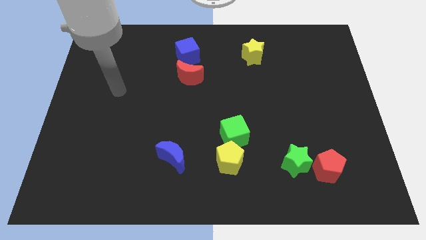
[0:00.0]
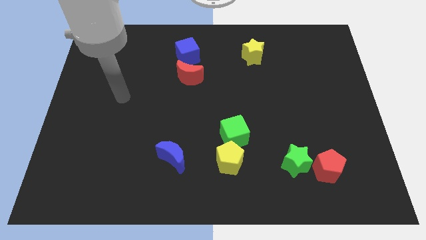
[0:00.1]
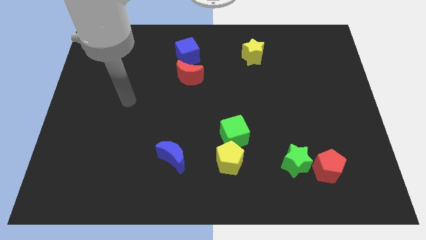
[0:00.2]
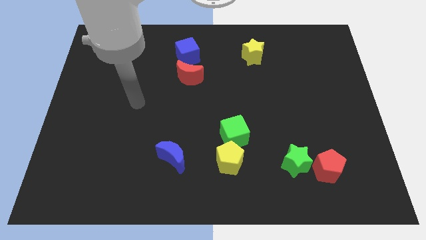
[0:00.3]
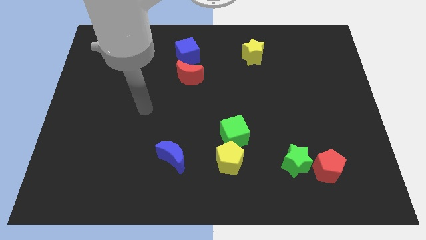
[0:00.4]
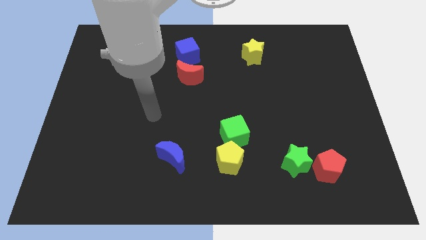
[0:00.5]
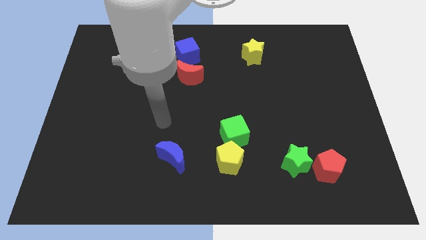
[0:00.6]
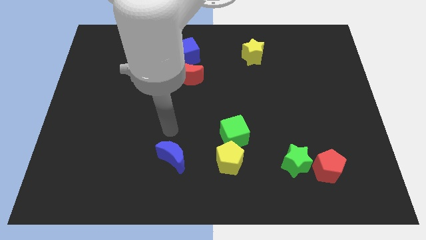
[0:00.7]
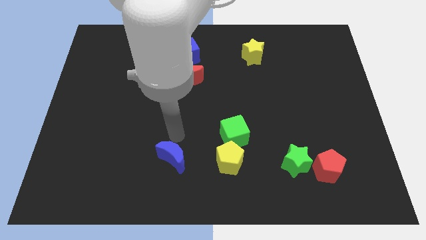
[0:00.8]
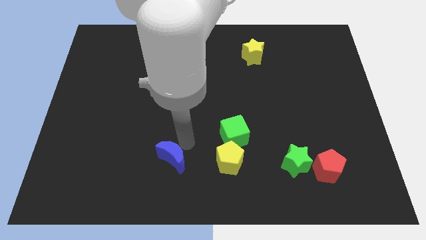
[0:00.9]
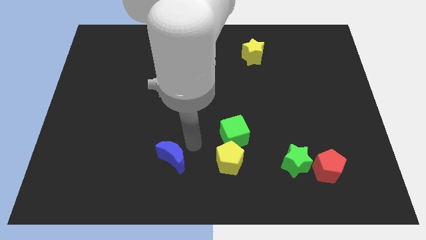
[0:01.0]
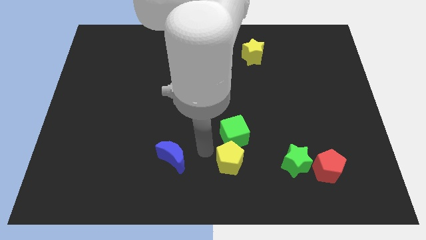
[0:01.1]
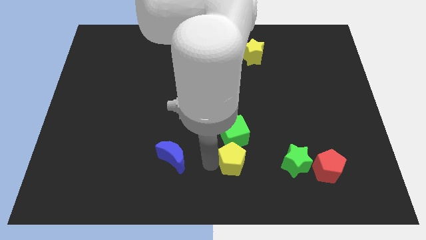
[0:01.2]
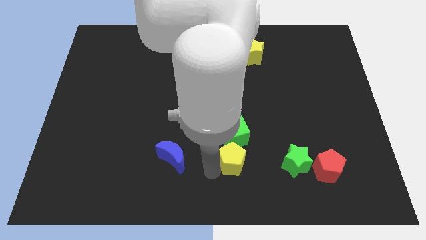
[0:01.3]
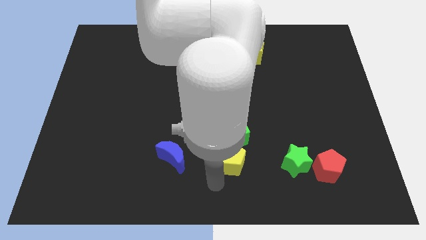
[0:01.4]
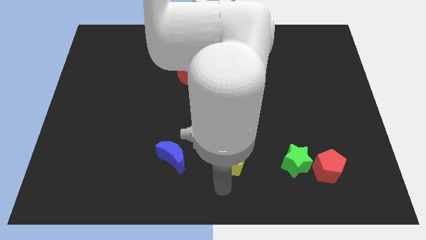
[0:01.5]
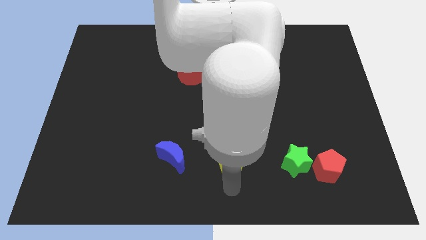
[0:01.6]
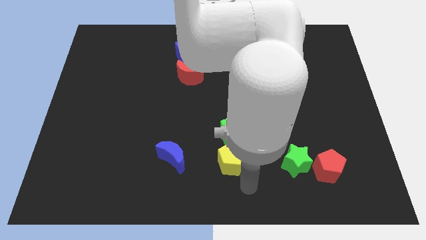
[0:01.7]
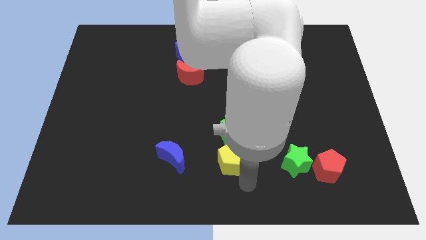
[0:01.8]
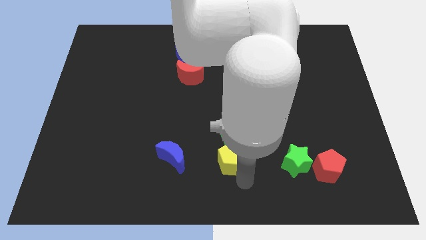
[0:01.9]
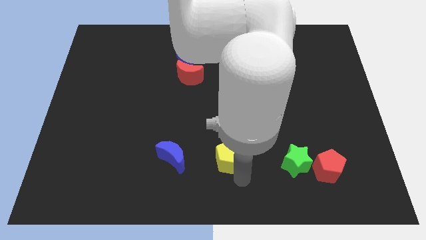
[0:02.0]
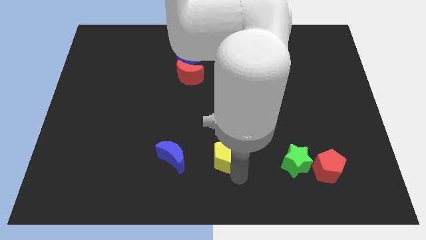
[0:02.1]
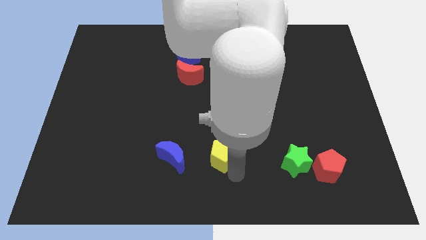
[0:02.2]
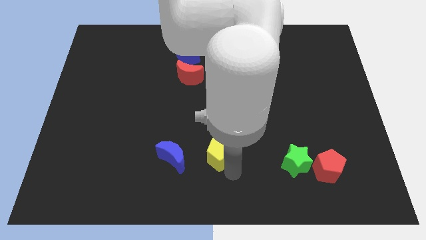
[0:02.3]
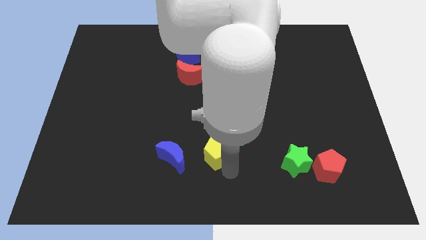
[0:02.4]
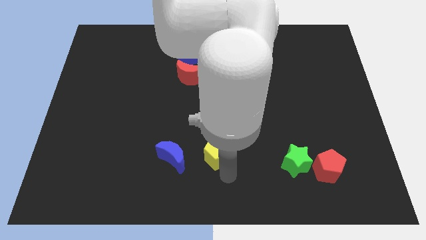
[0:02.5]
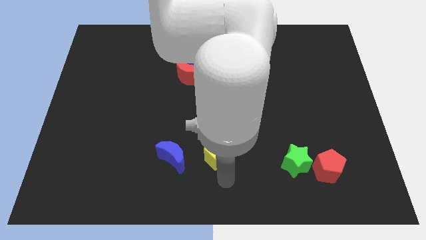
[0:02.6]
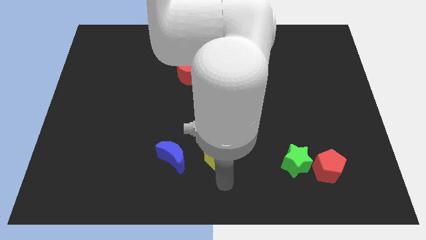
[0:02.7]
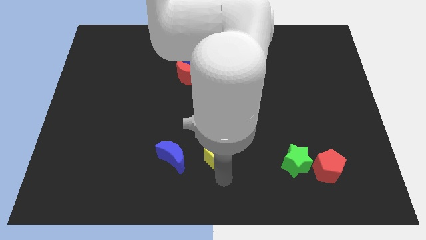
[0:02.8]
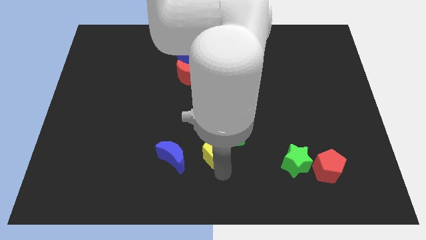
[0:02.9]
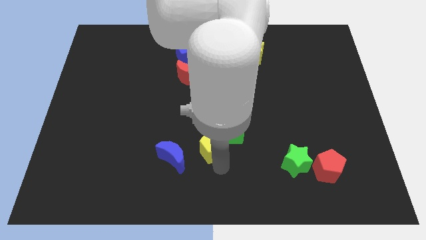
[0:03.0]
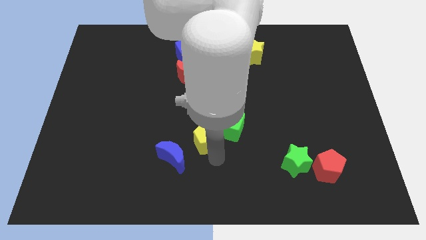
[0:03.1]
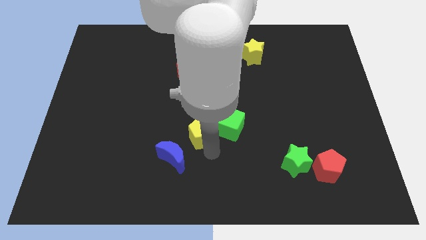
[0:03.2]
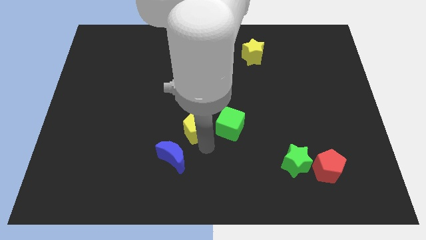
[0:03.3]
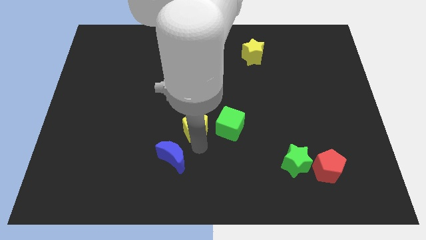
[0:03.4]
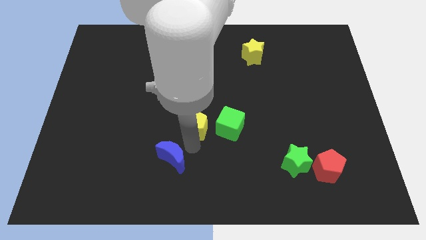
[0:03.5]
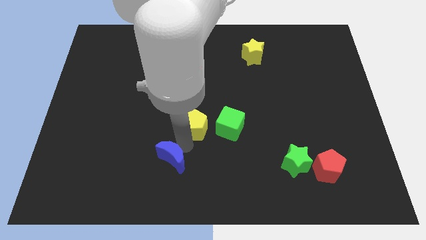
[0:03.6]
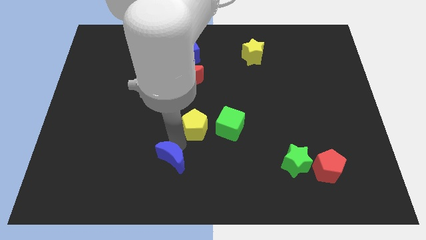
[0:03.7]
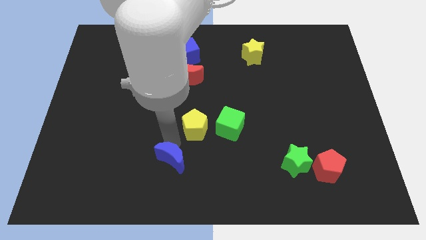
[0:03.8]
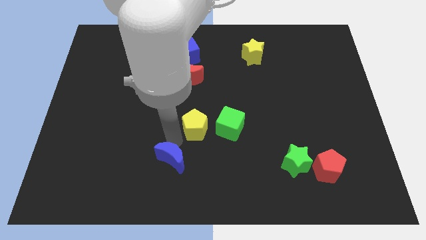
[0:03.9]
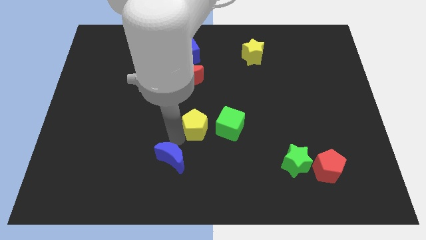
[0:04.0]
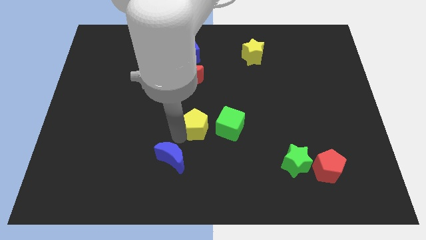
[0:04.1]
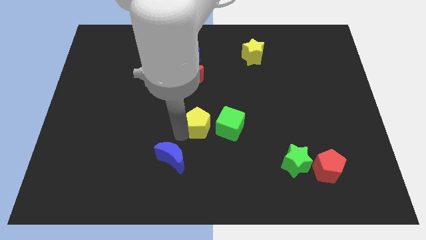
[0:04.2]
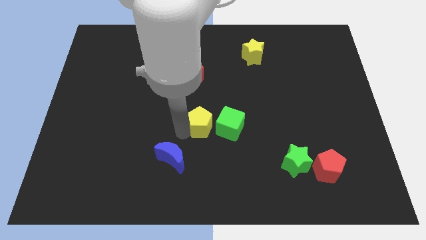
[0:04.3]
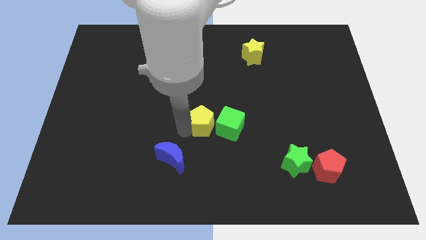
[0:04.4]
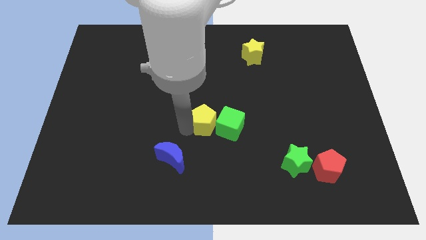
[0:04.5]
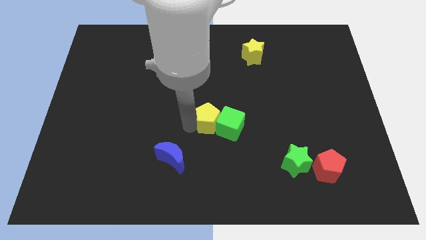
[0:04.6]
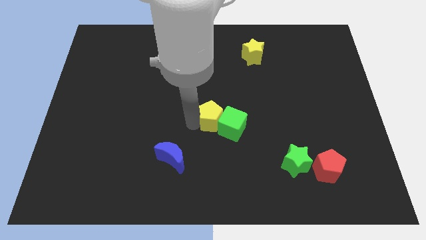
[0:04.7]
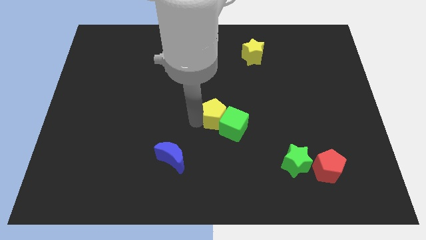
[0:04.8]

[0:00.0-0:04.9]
put the yellow pentagon to the top side of the green cube

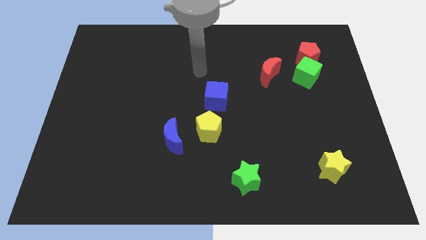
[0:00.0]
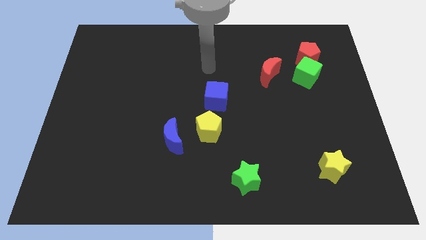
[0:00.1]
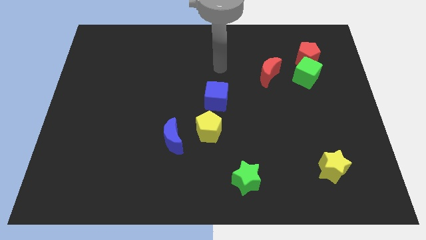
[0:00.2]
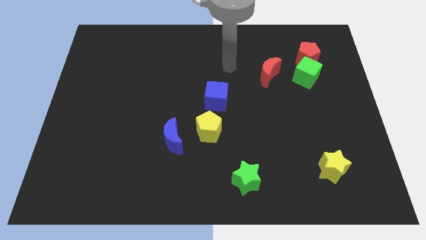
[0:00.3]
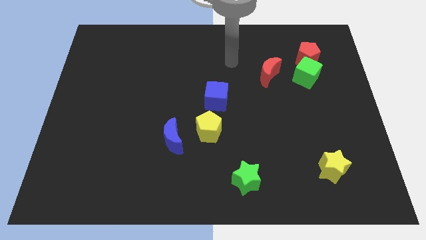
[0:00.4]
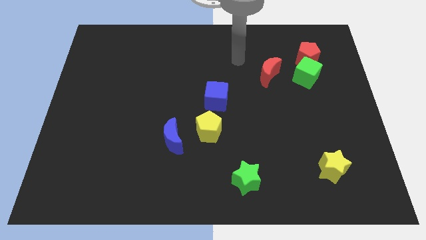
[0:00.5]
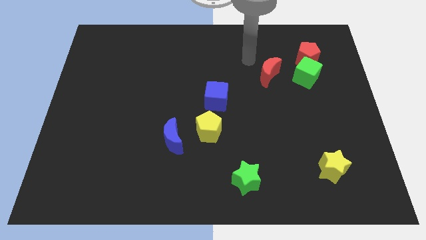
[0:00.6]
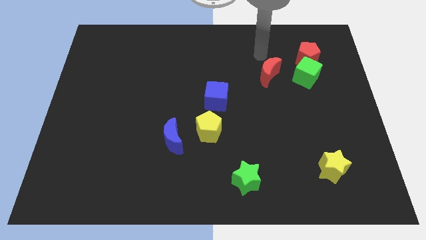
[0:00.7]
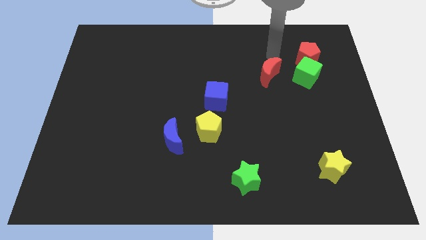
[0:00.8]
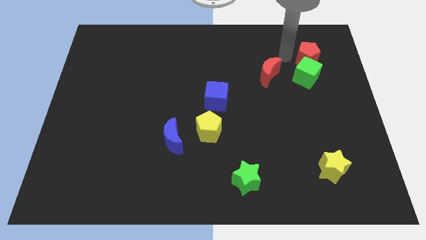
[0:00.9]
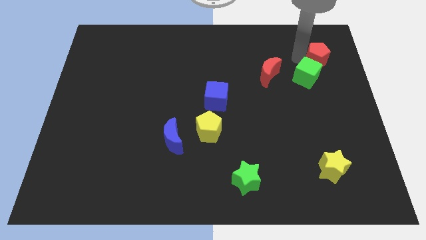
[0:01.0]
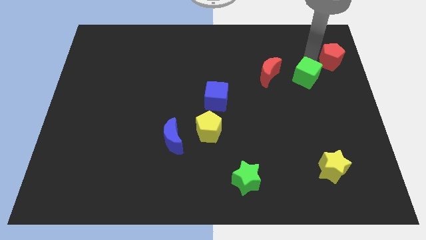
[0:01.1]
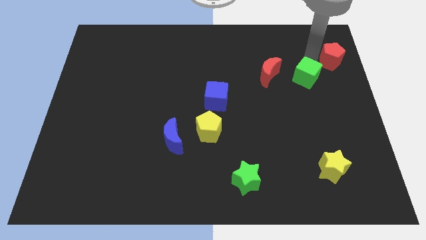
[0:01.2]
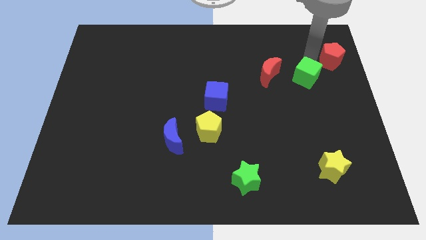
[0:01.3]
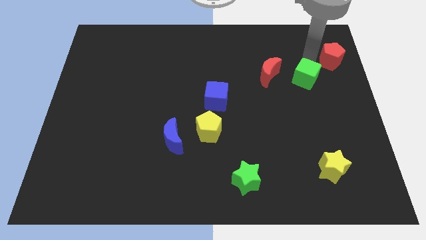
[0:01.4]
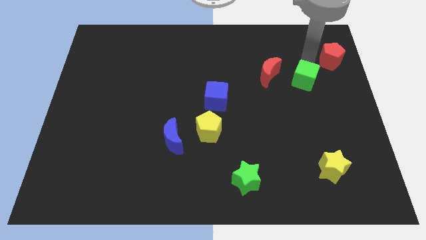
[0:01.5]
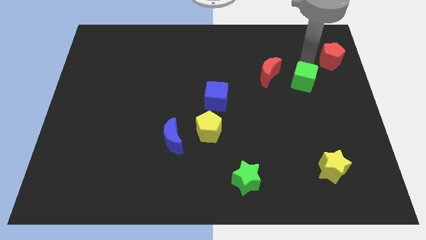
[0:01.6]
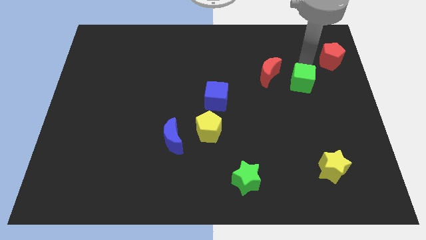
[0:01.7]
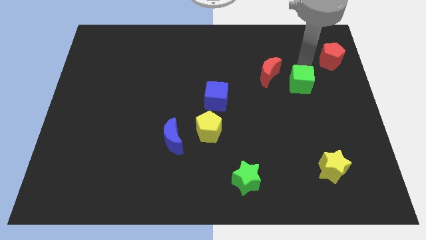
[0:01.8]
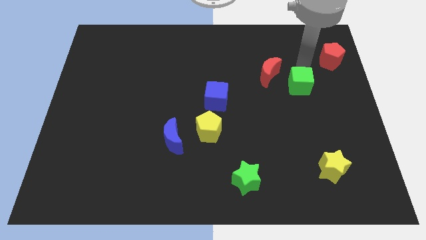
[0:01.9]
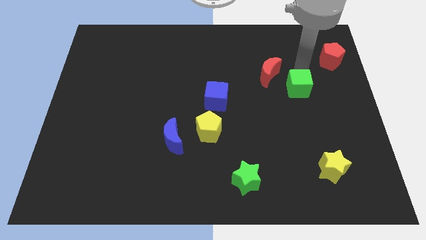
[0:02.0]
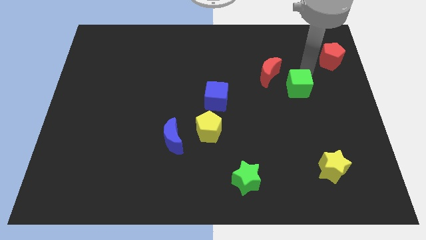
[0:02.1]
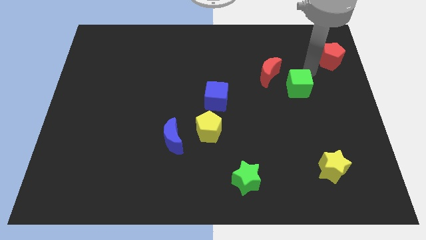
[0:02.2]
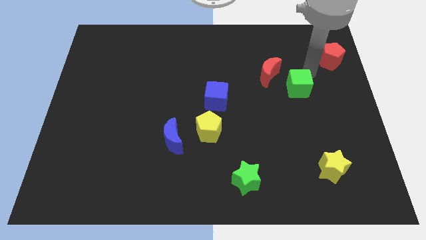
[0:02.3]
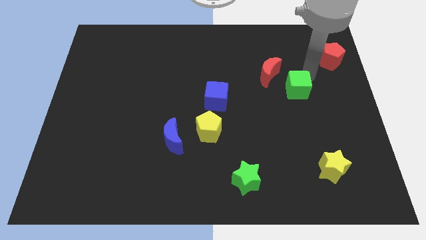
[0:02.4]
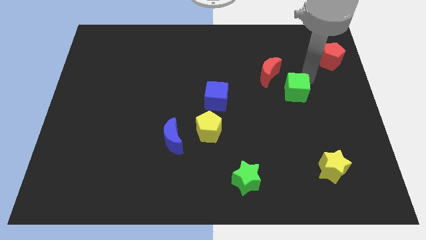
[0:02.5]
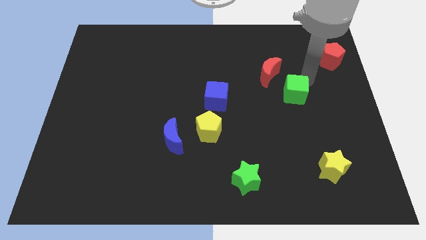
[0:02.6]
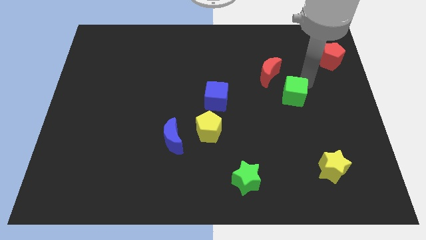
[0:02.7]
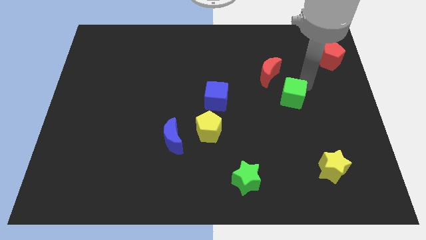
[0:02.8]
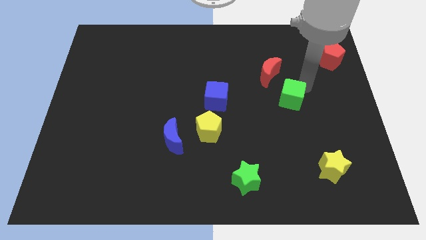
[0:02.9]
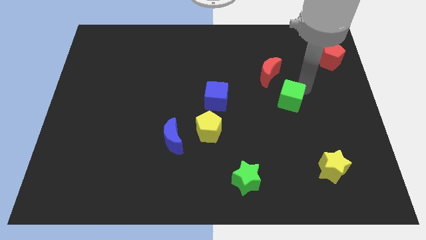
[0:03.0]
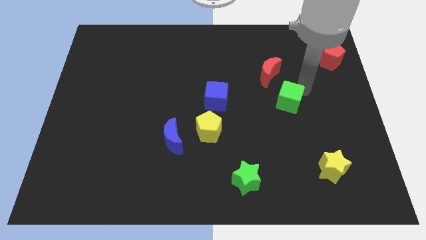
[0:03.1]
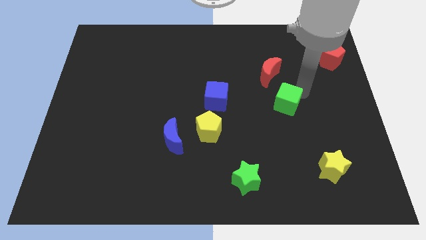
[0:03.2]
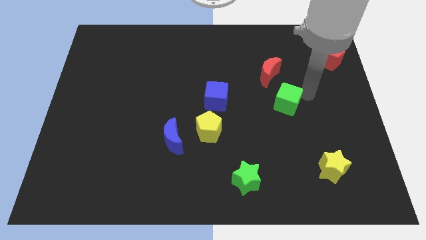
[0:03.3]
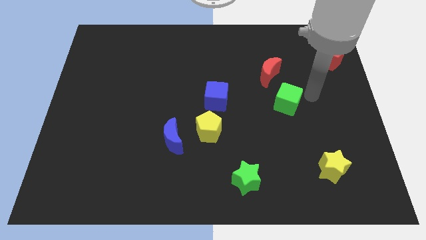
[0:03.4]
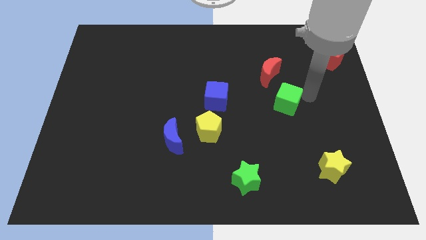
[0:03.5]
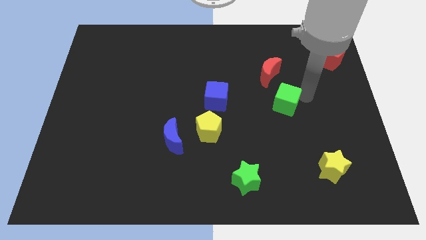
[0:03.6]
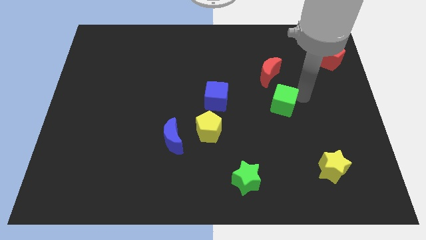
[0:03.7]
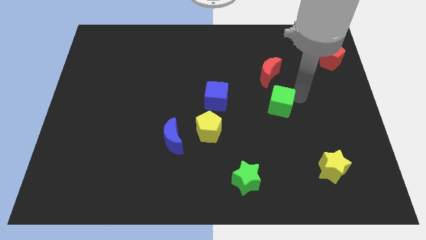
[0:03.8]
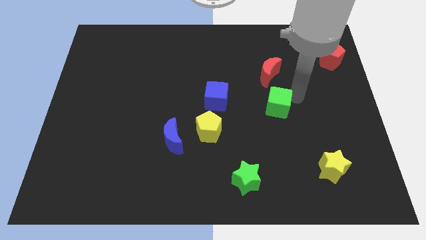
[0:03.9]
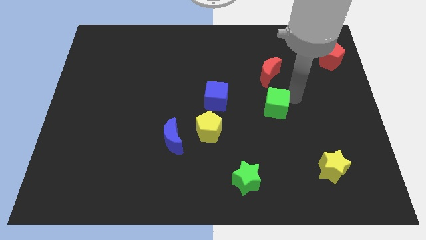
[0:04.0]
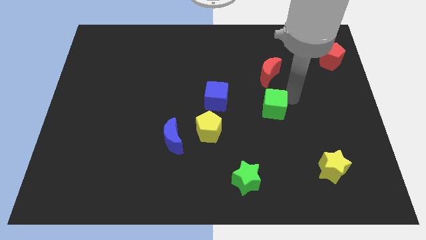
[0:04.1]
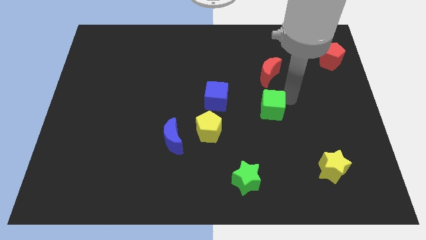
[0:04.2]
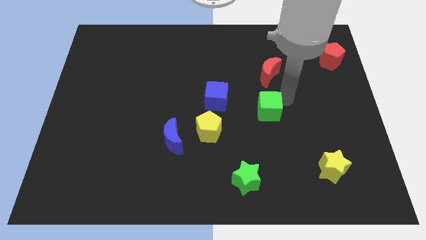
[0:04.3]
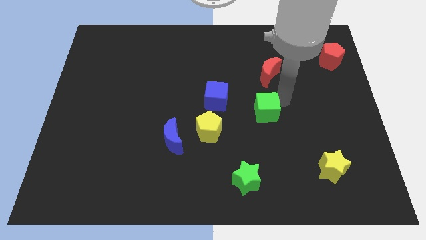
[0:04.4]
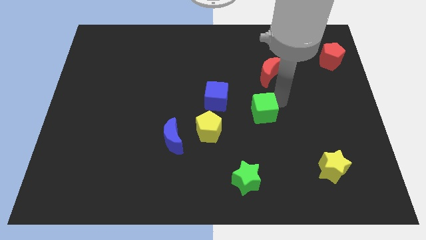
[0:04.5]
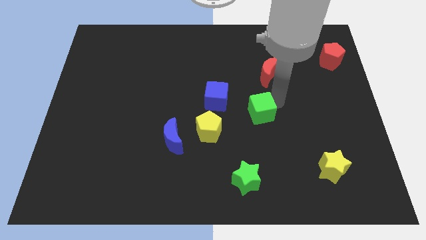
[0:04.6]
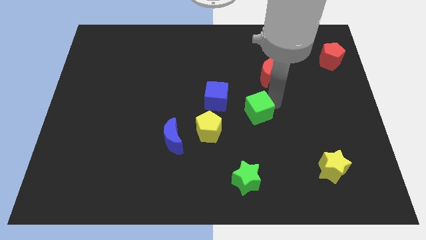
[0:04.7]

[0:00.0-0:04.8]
push the green cube to the bottom right of the blue cube
